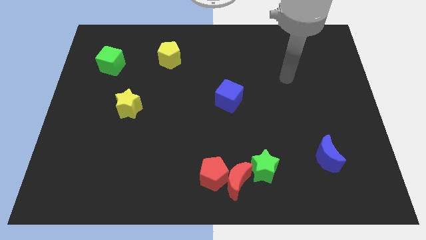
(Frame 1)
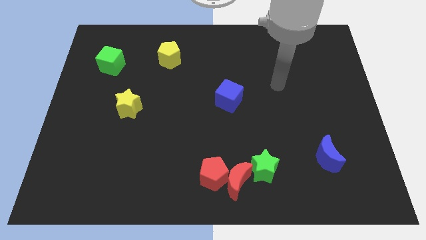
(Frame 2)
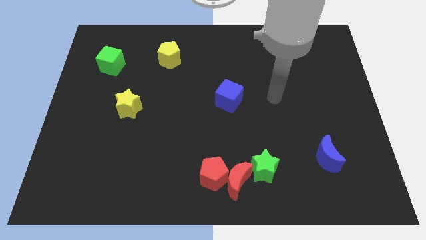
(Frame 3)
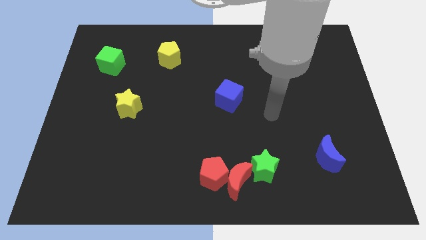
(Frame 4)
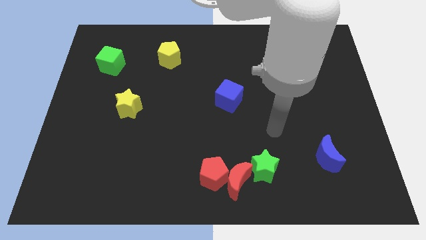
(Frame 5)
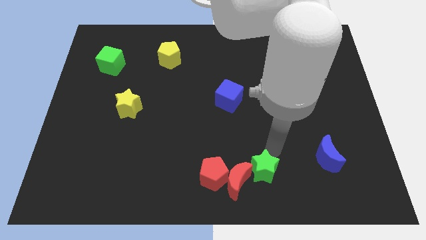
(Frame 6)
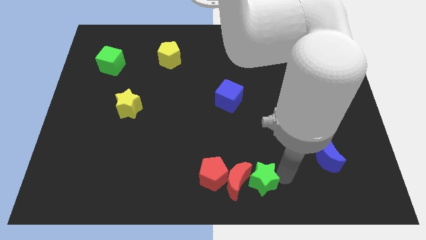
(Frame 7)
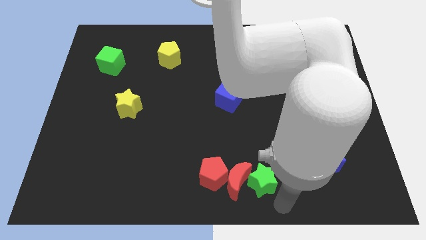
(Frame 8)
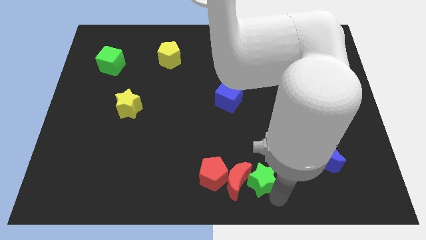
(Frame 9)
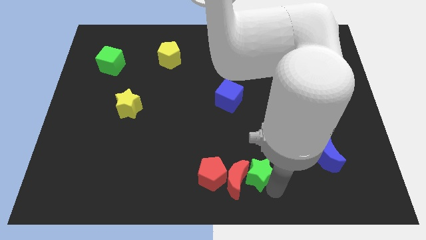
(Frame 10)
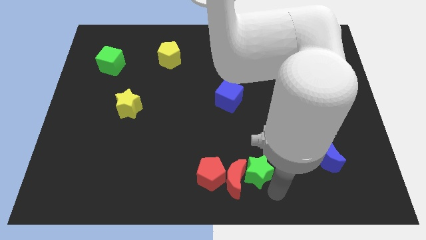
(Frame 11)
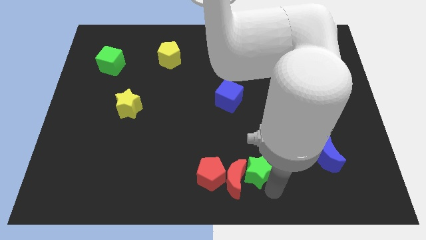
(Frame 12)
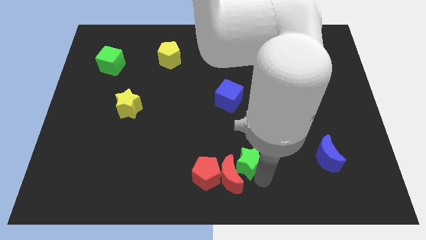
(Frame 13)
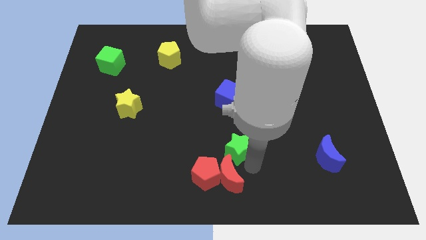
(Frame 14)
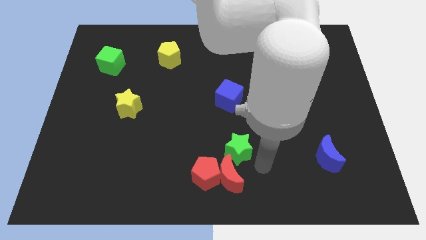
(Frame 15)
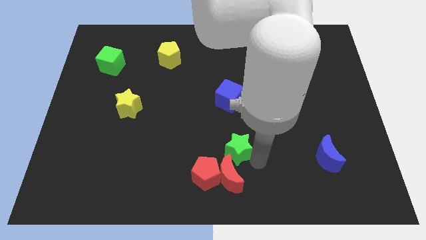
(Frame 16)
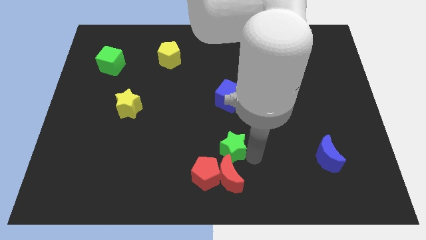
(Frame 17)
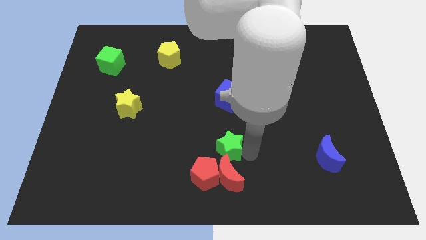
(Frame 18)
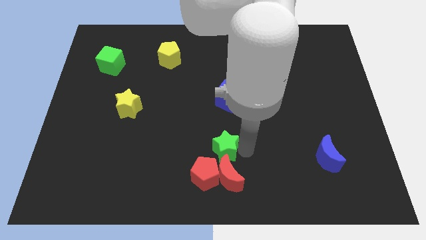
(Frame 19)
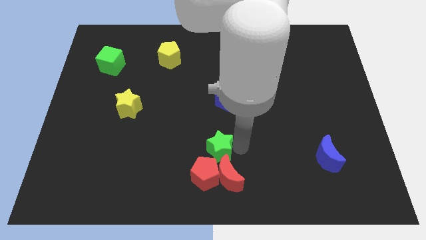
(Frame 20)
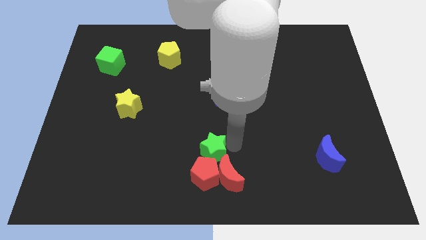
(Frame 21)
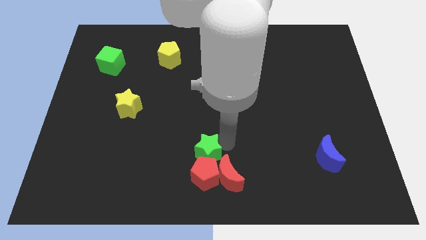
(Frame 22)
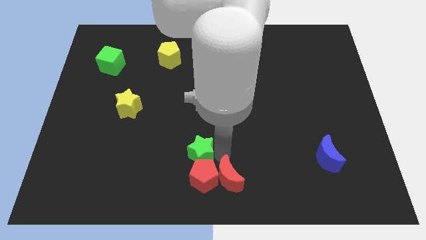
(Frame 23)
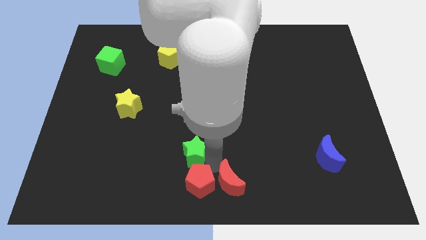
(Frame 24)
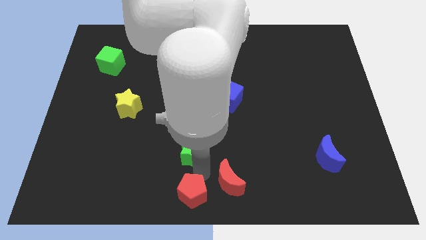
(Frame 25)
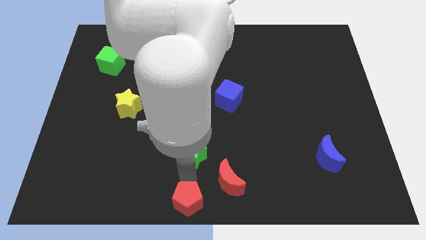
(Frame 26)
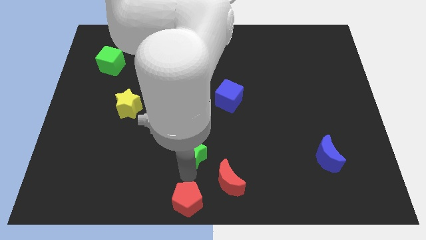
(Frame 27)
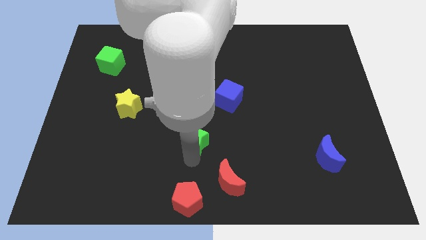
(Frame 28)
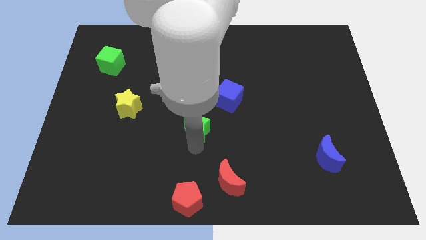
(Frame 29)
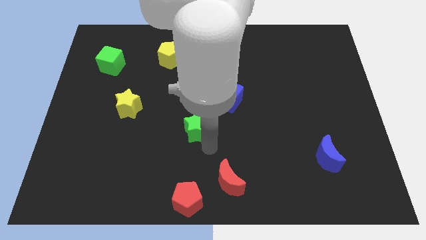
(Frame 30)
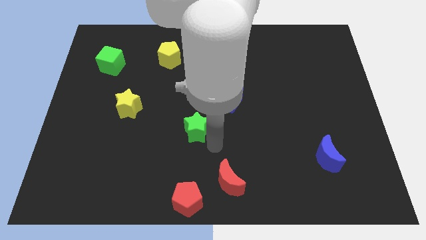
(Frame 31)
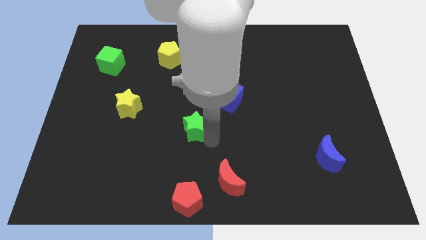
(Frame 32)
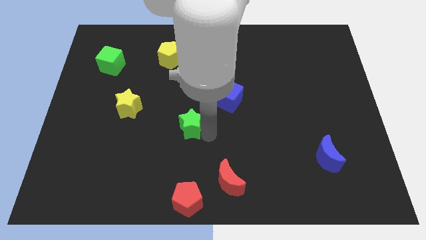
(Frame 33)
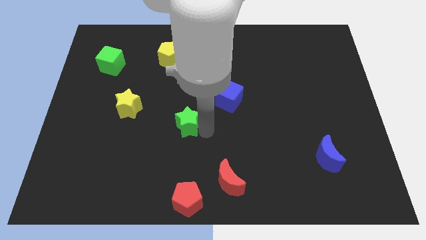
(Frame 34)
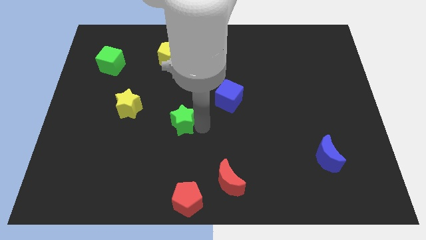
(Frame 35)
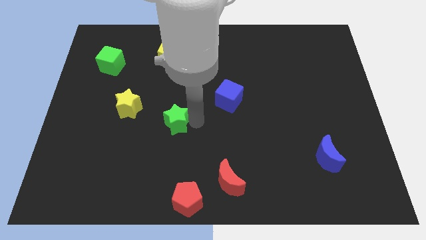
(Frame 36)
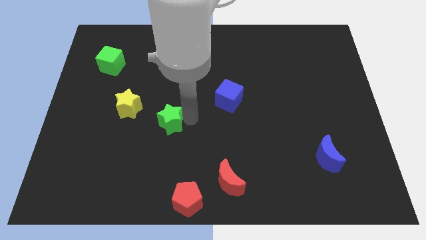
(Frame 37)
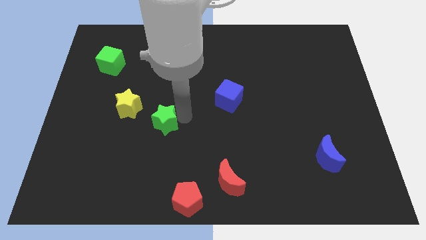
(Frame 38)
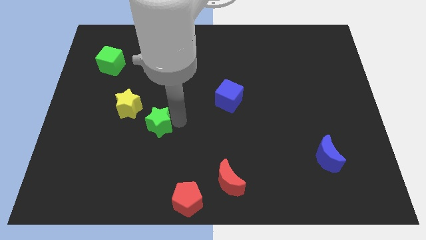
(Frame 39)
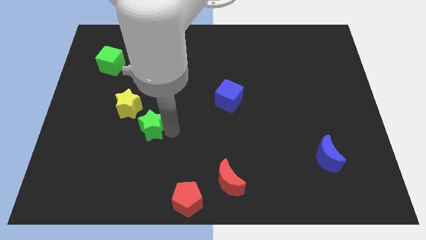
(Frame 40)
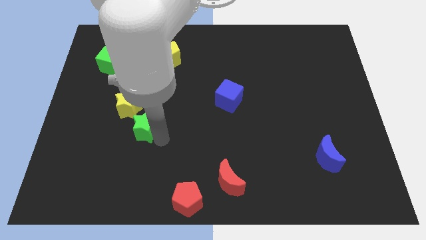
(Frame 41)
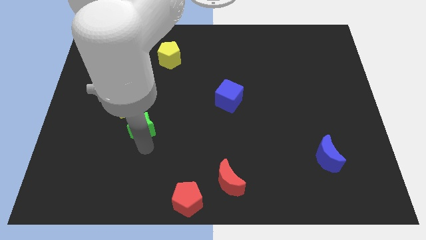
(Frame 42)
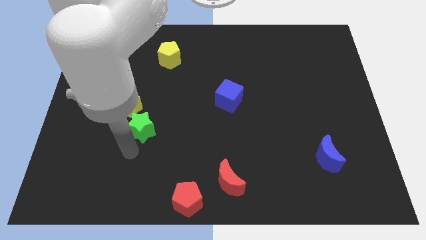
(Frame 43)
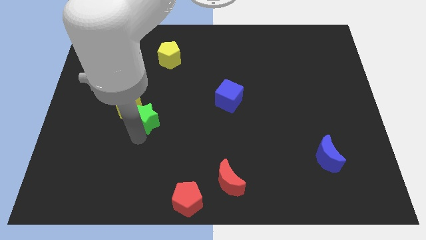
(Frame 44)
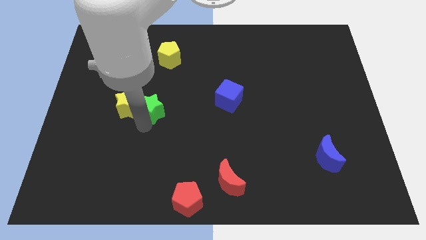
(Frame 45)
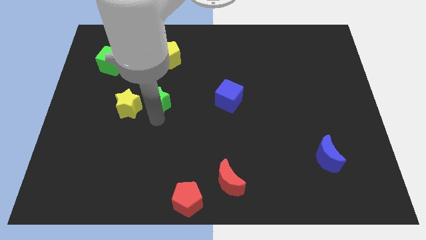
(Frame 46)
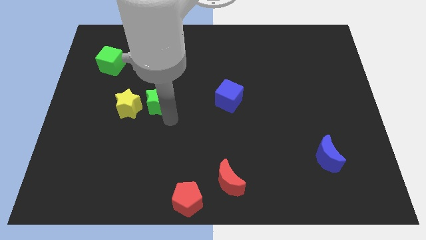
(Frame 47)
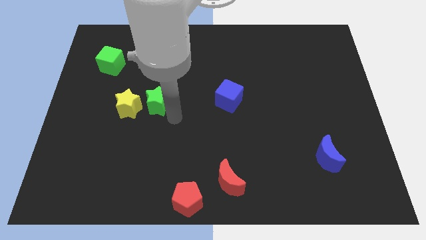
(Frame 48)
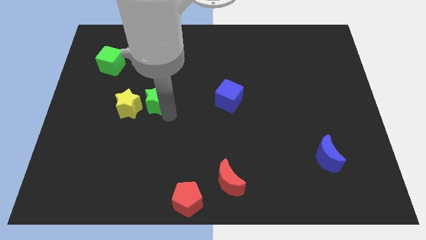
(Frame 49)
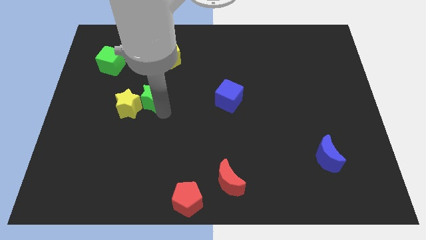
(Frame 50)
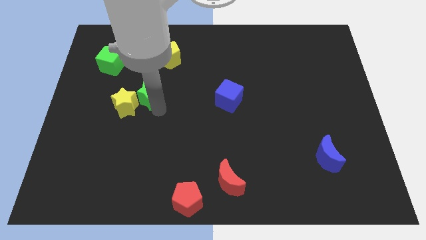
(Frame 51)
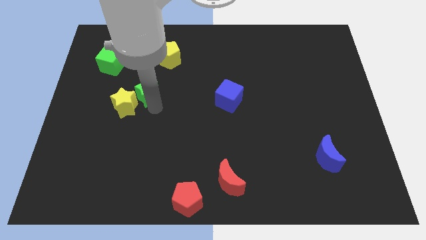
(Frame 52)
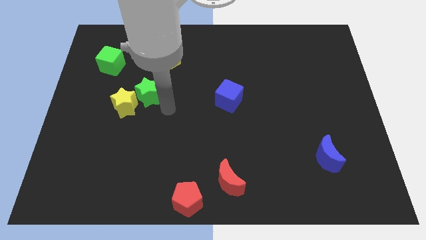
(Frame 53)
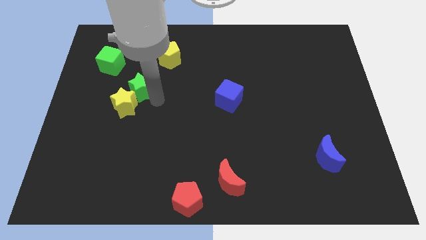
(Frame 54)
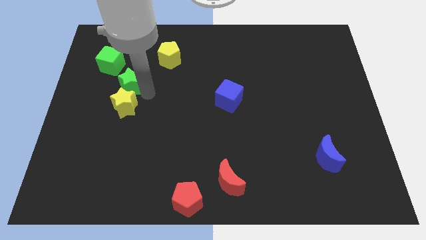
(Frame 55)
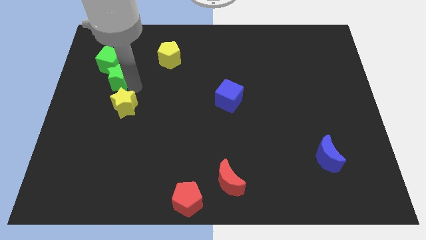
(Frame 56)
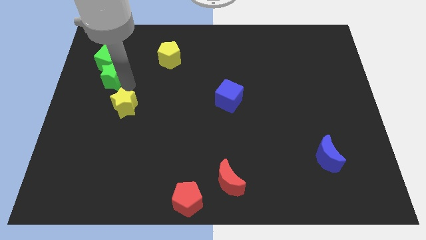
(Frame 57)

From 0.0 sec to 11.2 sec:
move the green star towards the green cube

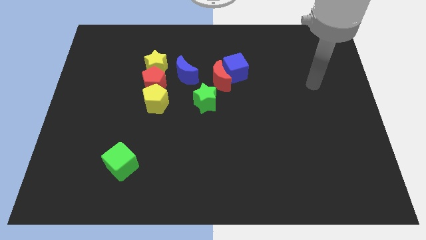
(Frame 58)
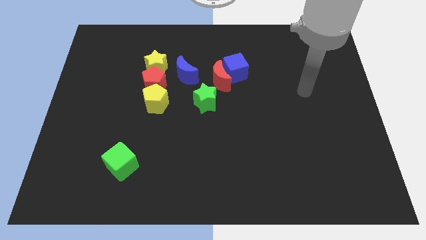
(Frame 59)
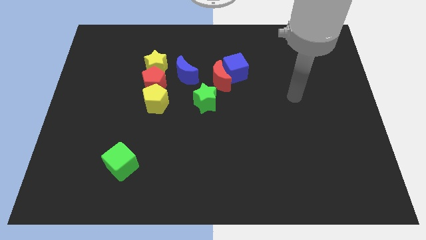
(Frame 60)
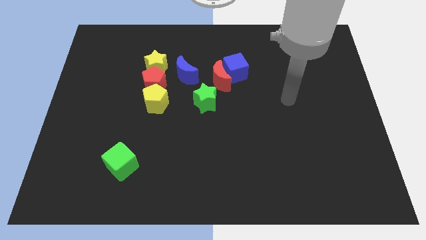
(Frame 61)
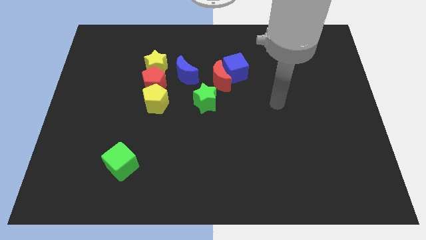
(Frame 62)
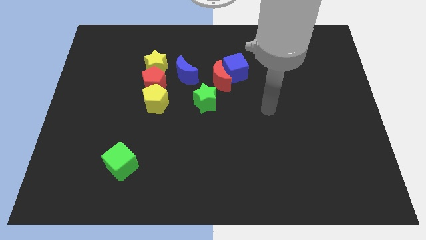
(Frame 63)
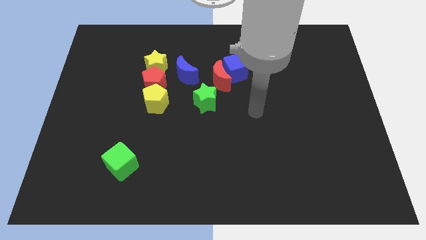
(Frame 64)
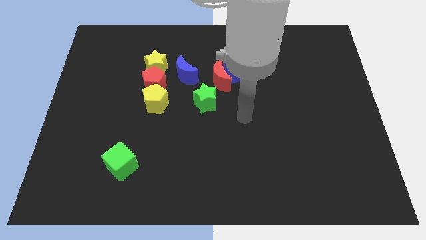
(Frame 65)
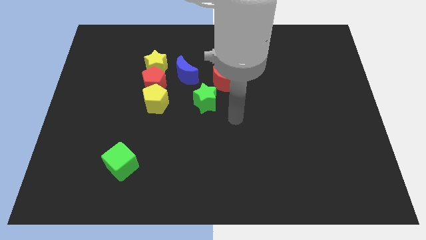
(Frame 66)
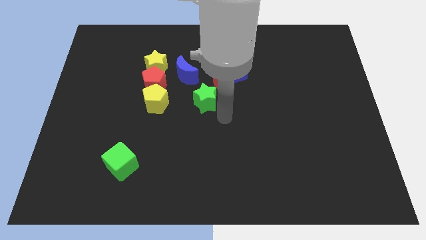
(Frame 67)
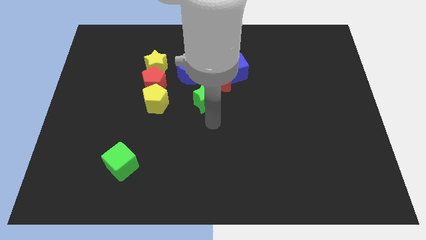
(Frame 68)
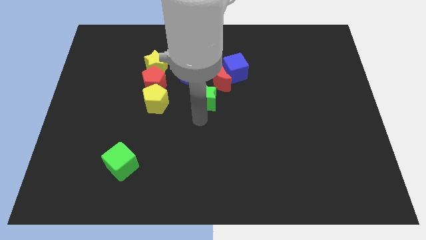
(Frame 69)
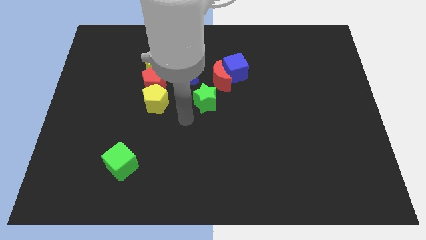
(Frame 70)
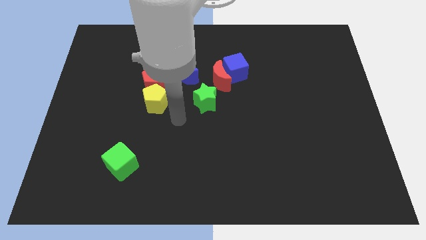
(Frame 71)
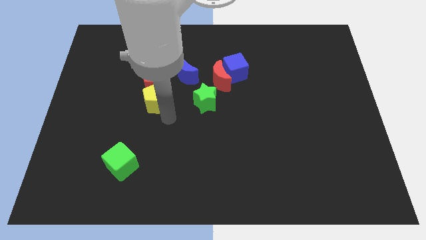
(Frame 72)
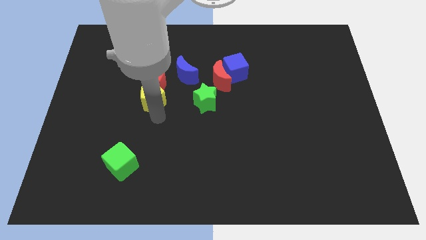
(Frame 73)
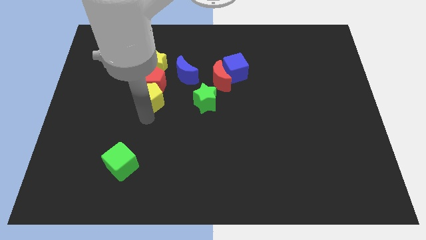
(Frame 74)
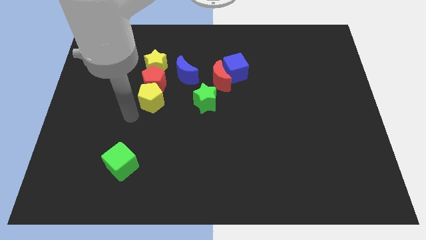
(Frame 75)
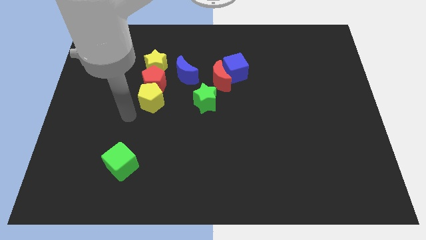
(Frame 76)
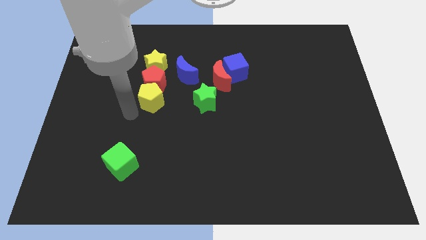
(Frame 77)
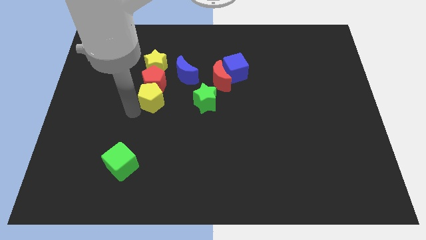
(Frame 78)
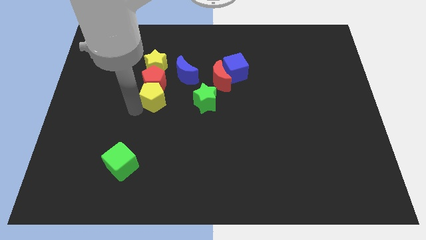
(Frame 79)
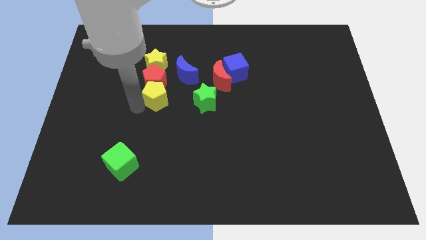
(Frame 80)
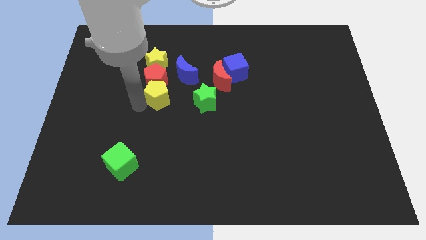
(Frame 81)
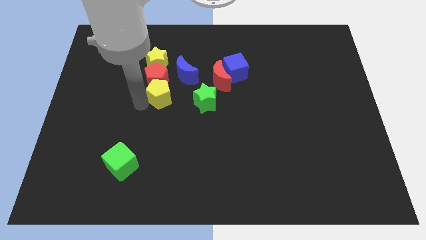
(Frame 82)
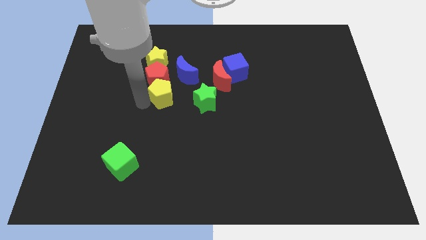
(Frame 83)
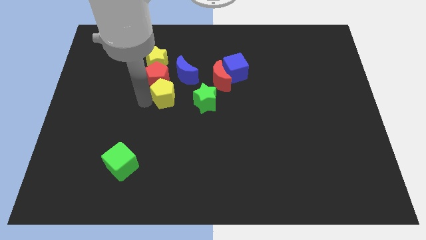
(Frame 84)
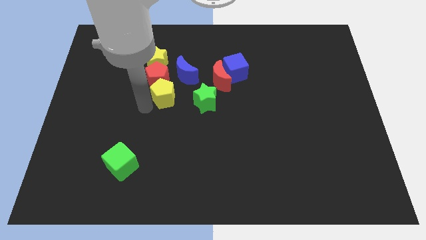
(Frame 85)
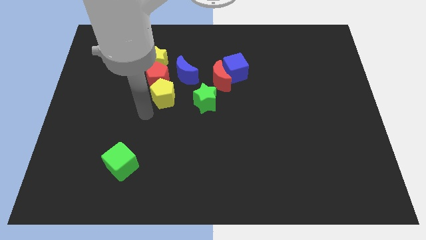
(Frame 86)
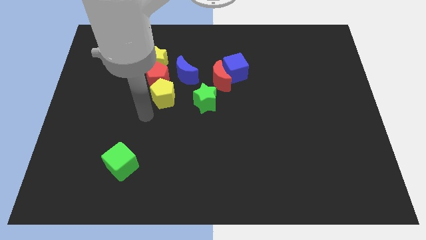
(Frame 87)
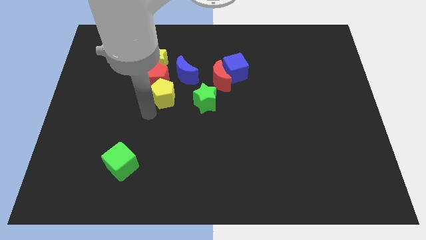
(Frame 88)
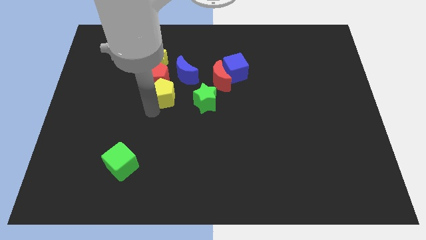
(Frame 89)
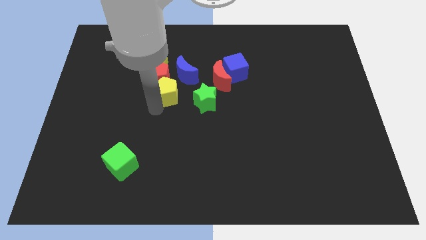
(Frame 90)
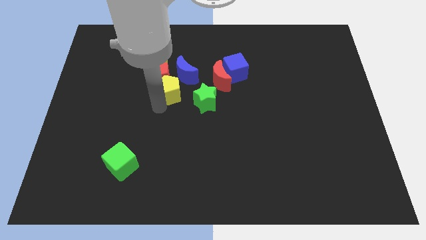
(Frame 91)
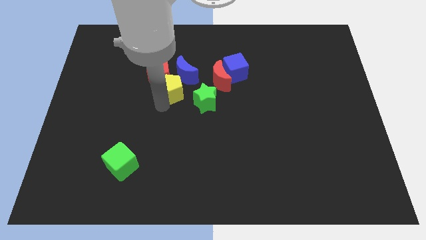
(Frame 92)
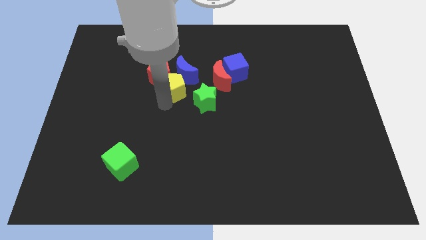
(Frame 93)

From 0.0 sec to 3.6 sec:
put the yellow pentagon to the blue moon
